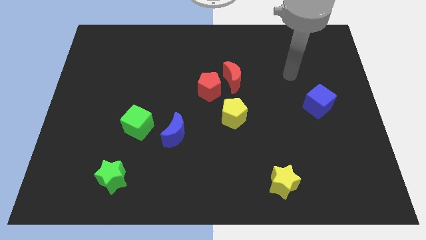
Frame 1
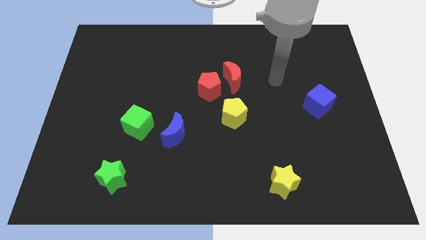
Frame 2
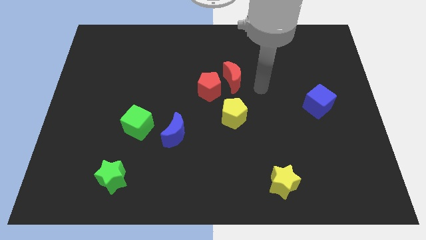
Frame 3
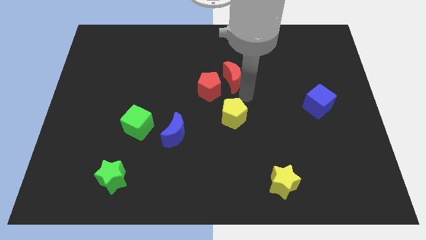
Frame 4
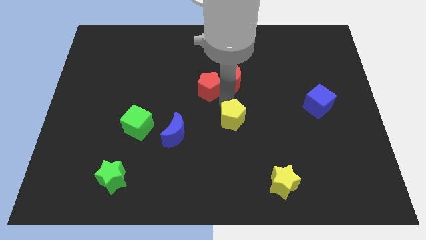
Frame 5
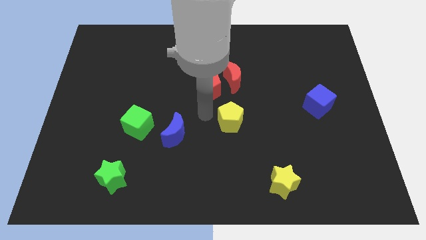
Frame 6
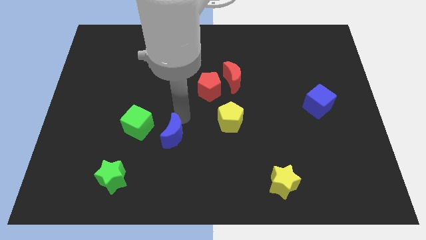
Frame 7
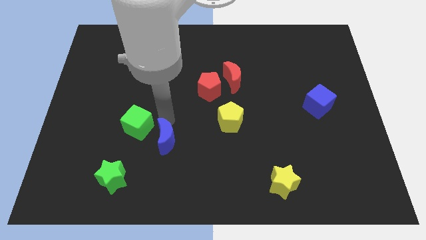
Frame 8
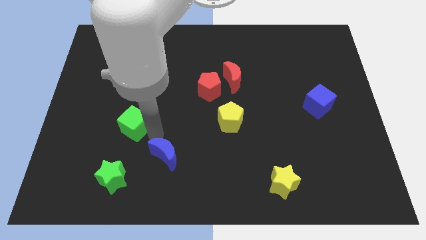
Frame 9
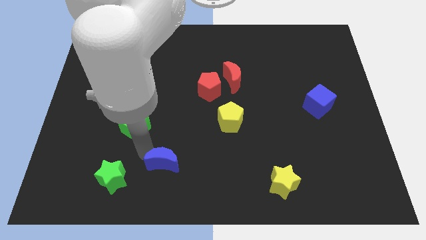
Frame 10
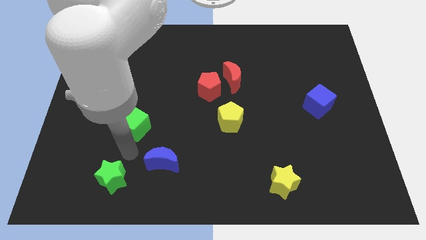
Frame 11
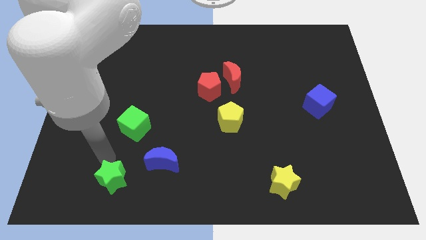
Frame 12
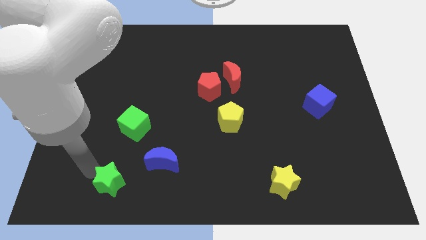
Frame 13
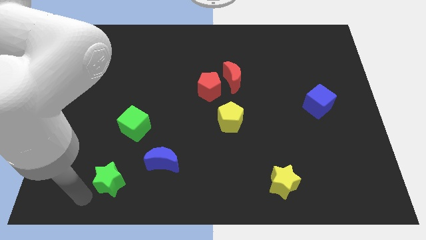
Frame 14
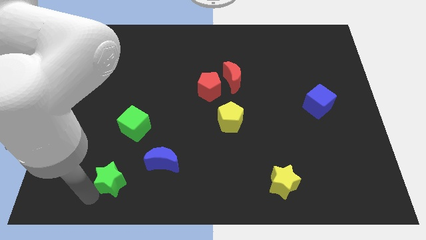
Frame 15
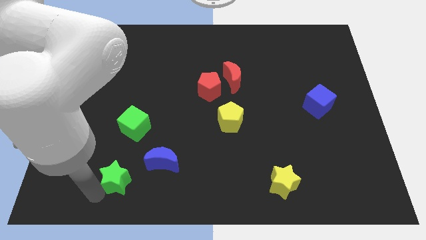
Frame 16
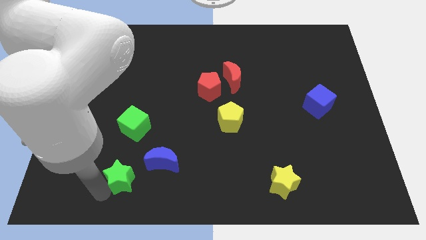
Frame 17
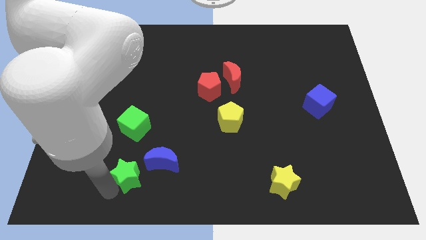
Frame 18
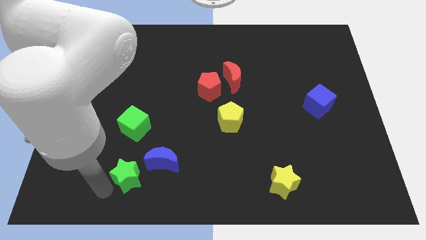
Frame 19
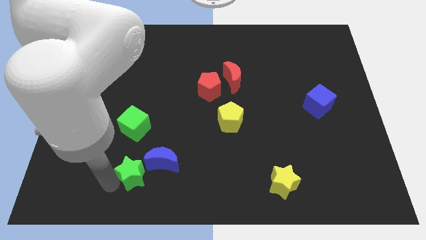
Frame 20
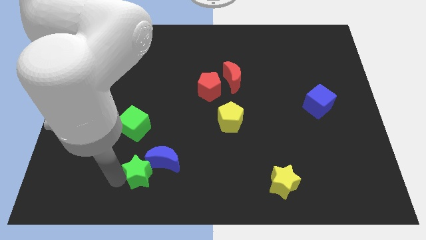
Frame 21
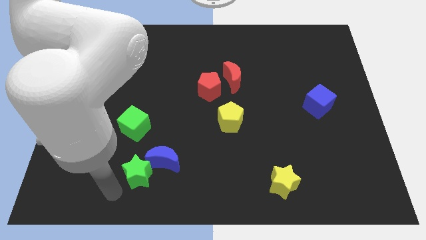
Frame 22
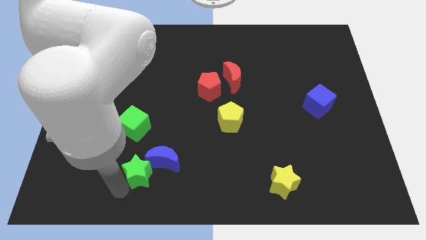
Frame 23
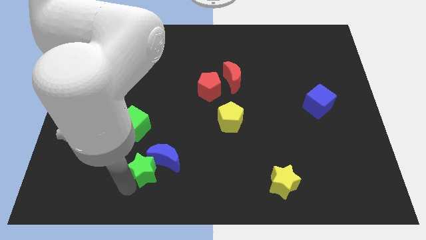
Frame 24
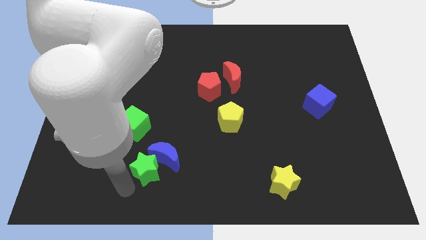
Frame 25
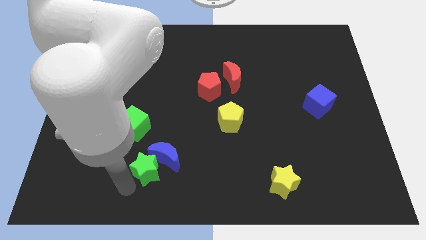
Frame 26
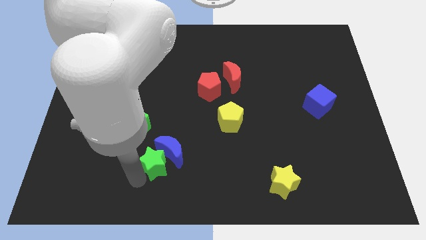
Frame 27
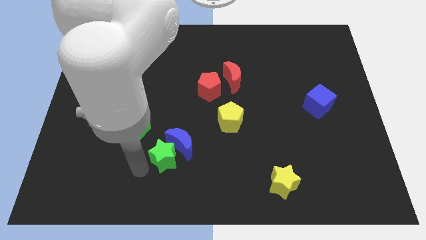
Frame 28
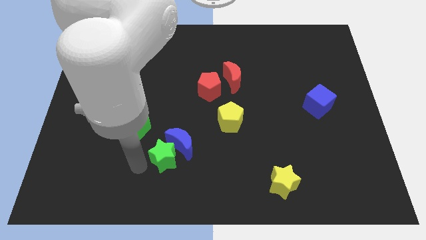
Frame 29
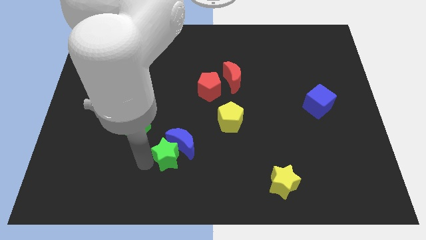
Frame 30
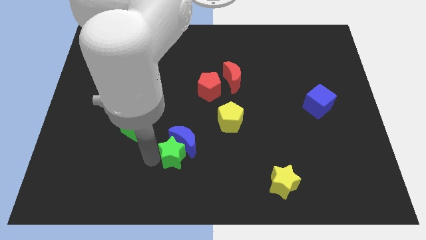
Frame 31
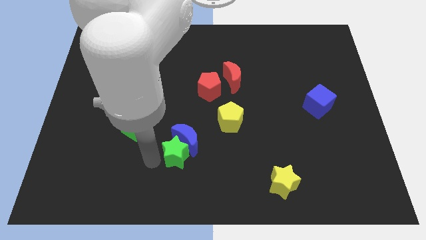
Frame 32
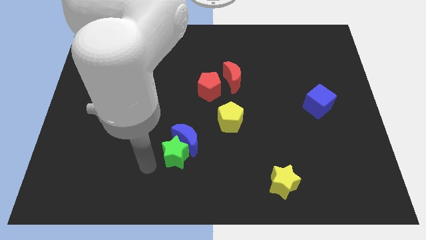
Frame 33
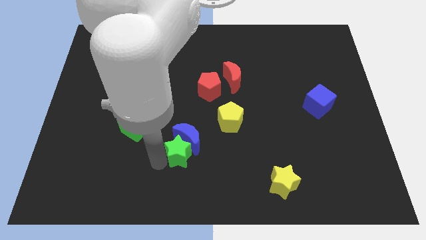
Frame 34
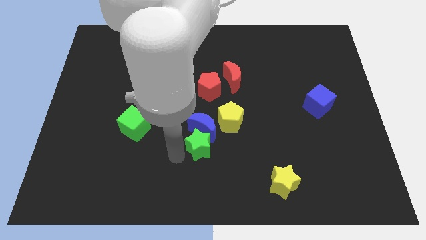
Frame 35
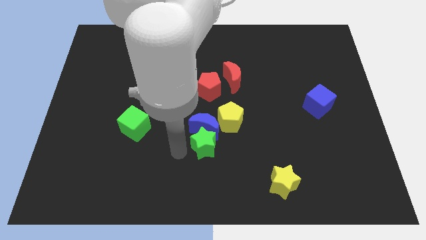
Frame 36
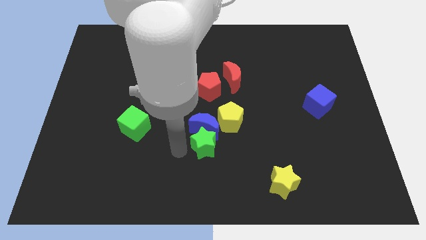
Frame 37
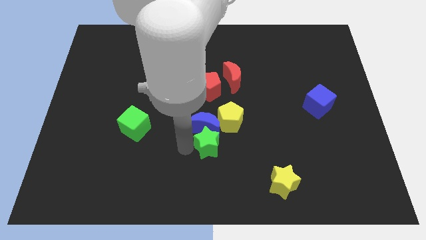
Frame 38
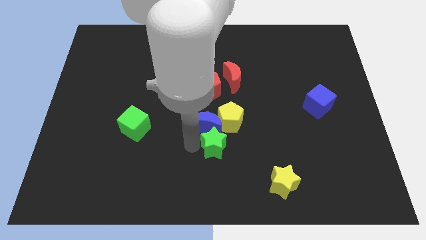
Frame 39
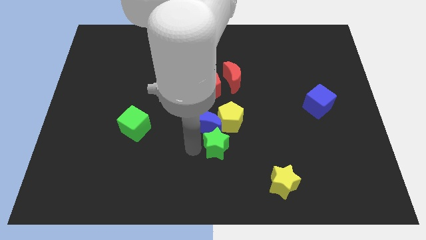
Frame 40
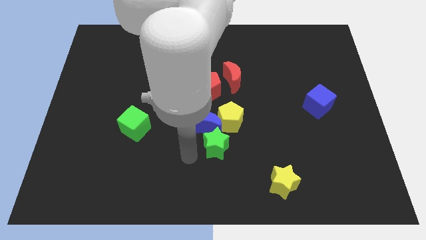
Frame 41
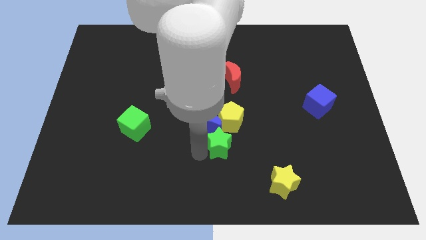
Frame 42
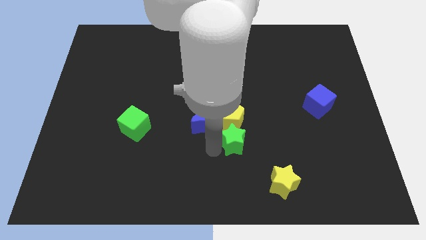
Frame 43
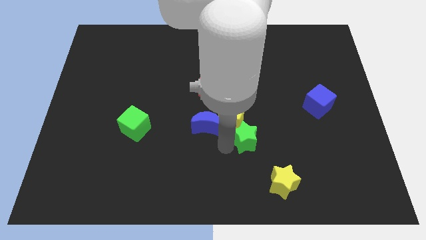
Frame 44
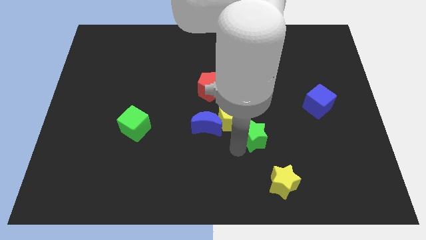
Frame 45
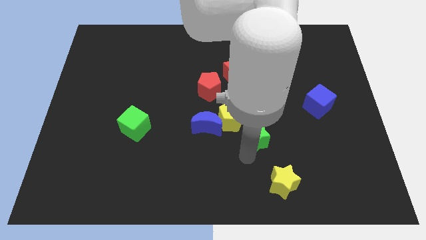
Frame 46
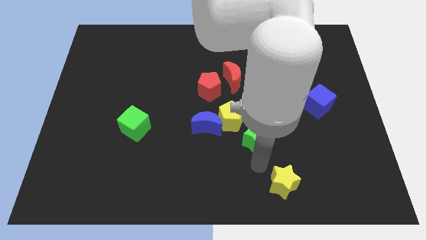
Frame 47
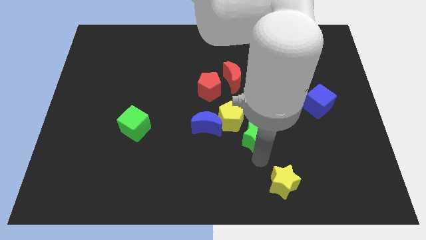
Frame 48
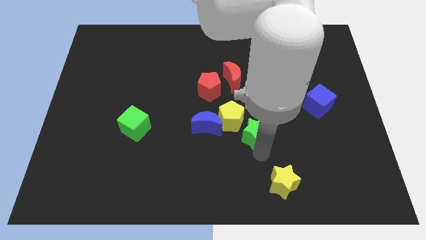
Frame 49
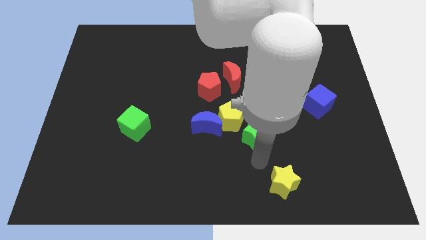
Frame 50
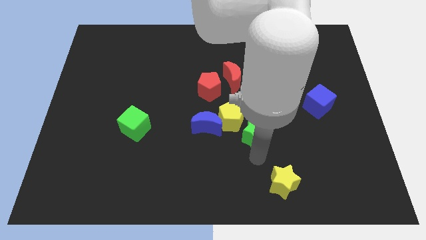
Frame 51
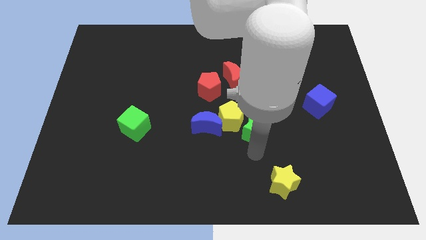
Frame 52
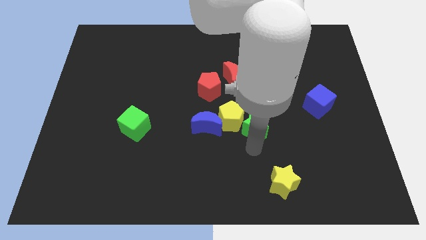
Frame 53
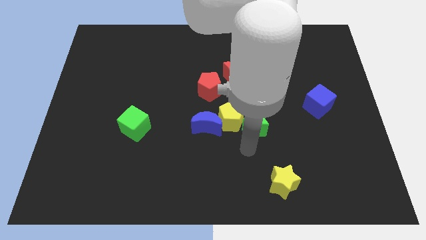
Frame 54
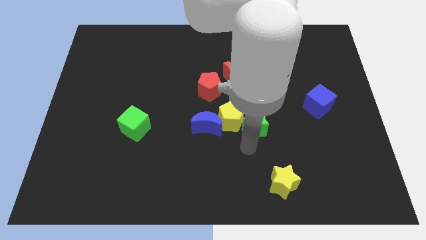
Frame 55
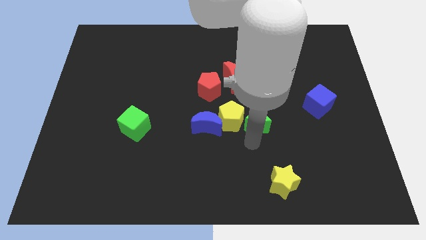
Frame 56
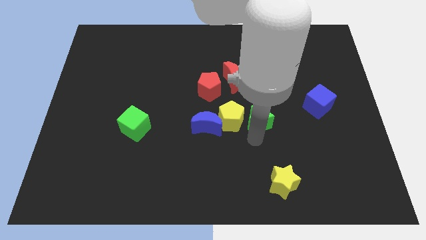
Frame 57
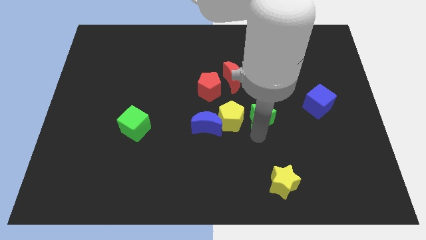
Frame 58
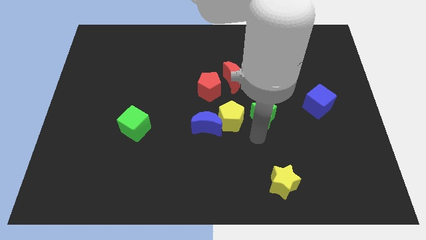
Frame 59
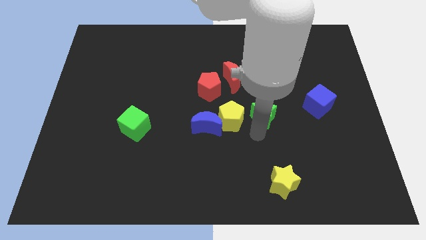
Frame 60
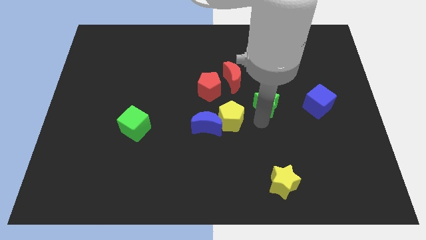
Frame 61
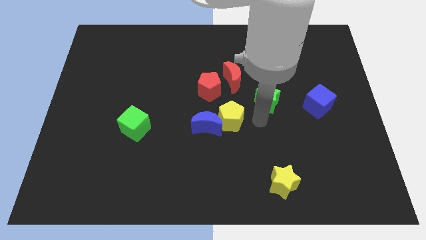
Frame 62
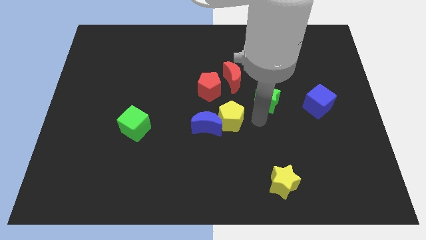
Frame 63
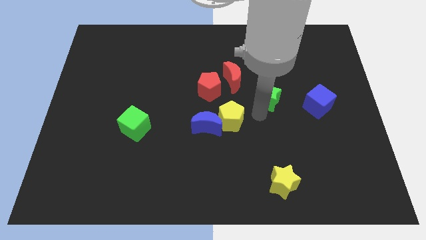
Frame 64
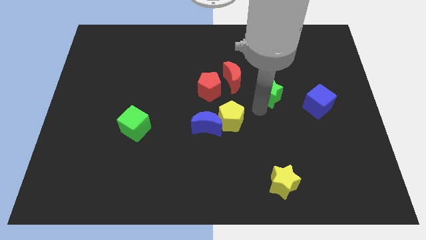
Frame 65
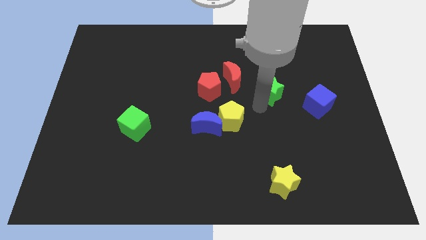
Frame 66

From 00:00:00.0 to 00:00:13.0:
put the green star just right of the red moon
